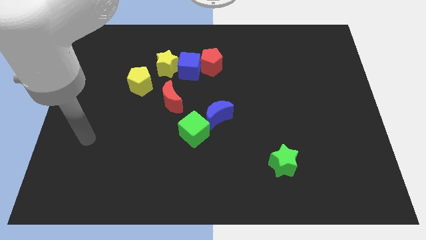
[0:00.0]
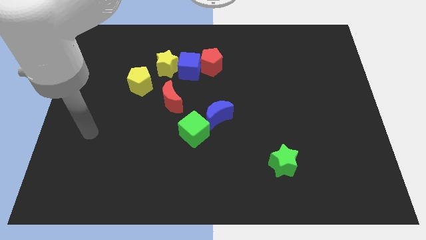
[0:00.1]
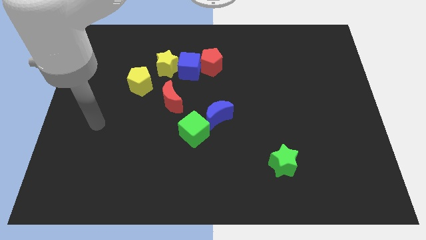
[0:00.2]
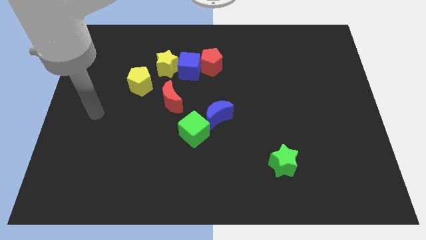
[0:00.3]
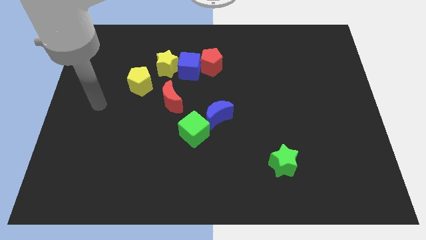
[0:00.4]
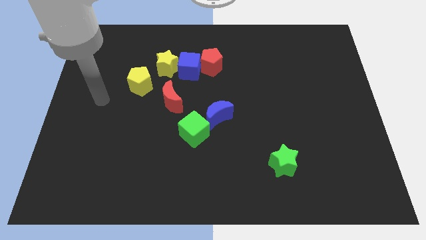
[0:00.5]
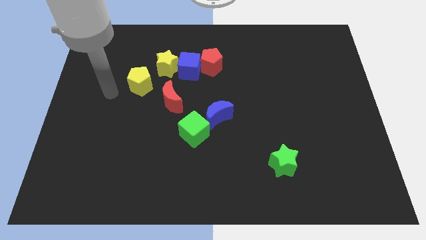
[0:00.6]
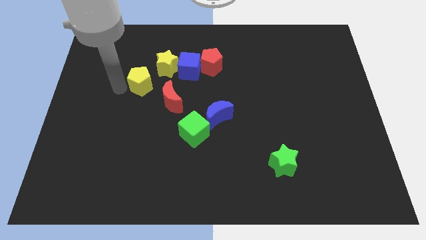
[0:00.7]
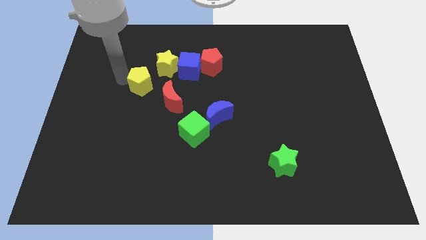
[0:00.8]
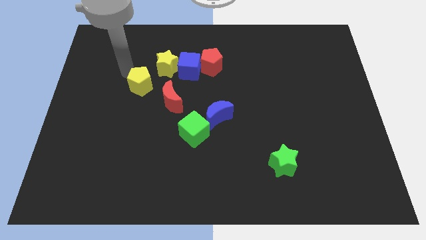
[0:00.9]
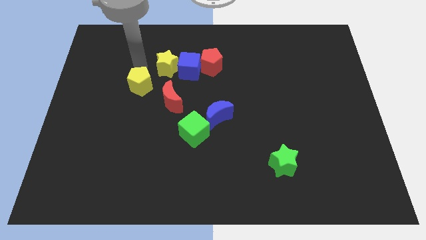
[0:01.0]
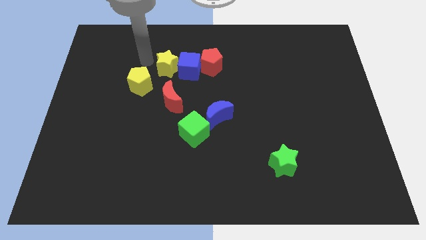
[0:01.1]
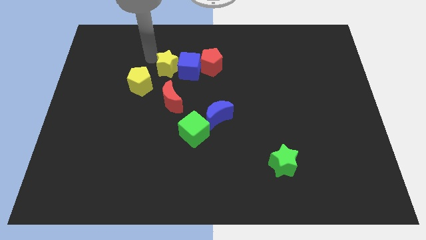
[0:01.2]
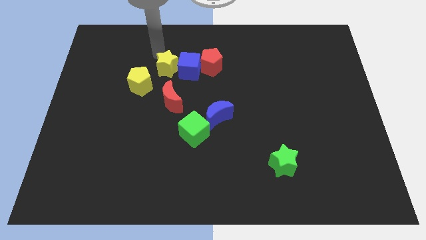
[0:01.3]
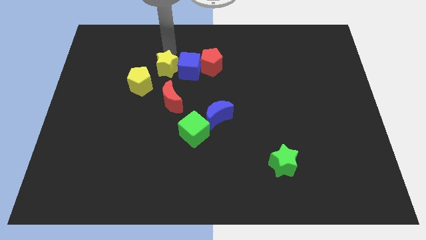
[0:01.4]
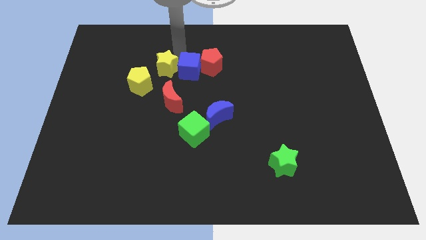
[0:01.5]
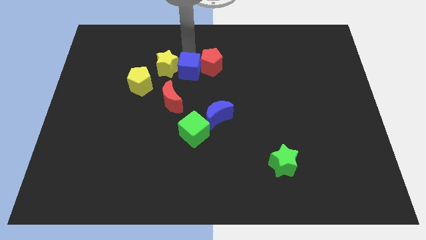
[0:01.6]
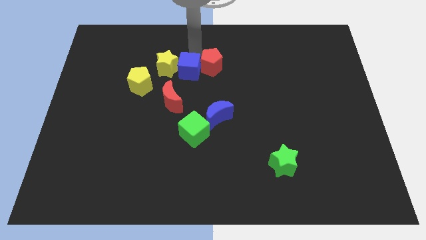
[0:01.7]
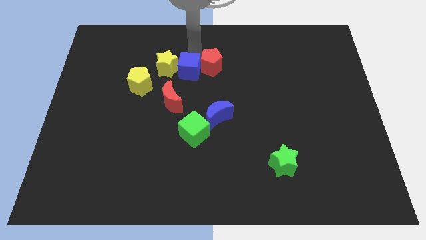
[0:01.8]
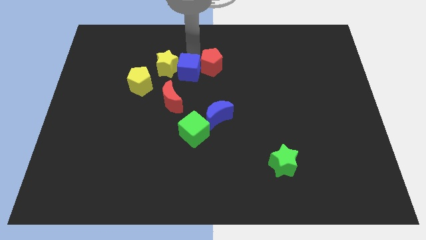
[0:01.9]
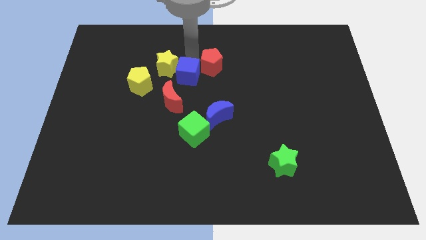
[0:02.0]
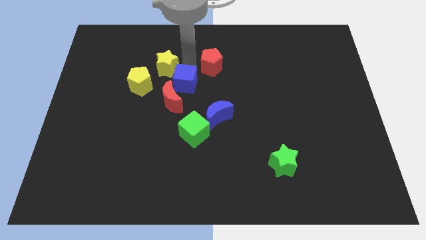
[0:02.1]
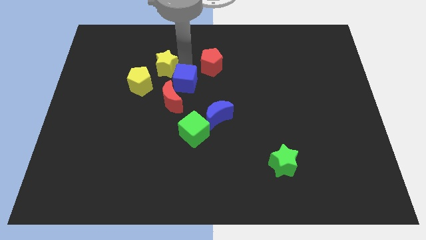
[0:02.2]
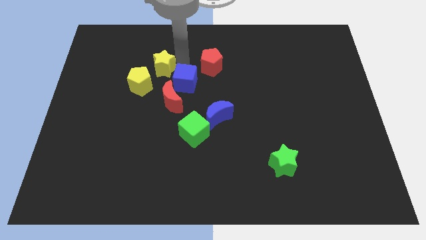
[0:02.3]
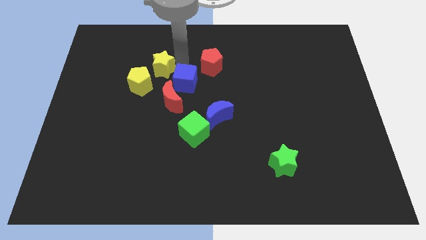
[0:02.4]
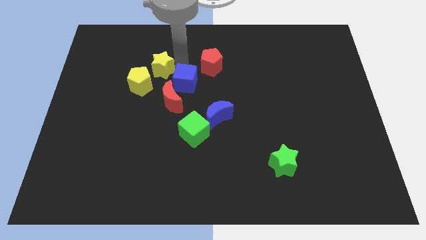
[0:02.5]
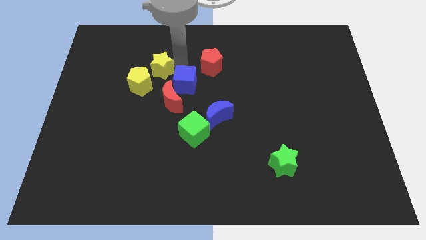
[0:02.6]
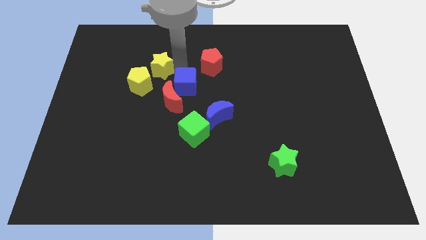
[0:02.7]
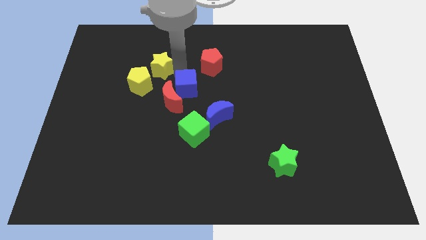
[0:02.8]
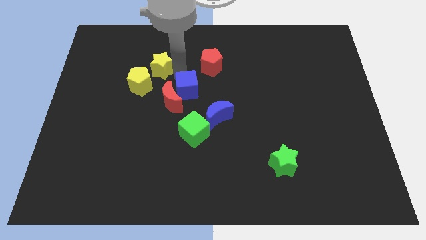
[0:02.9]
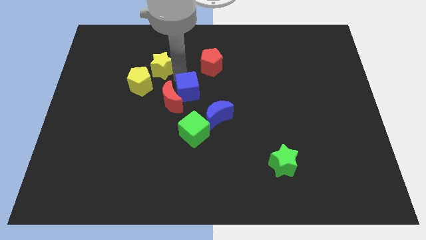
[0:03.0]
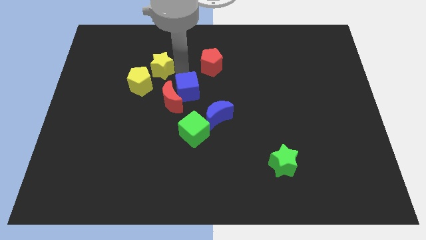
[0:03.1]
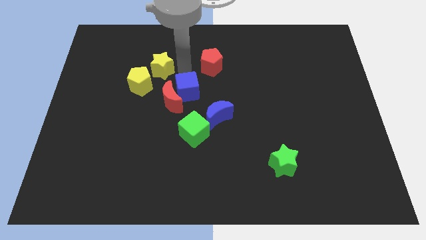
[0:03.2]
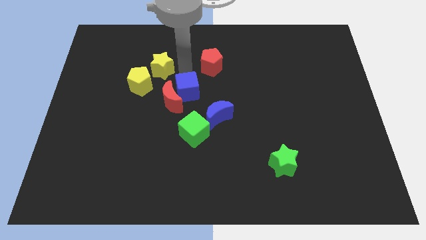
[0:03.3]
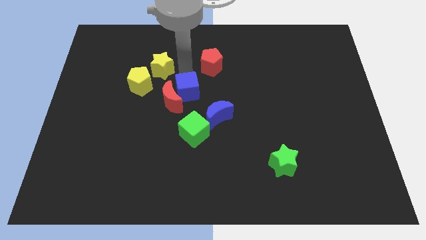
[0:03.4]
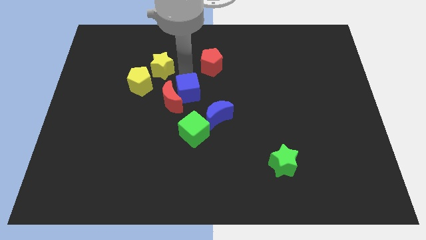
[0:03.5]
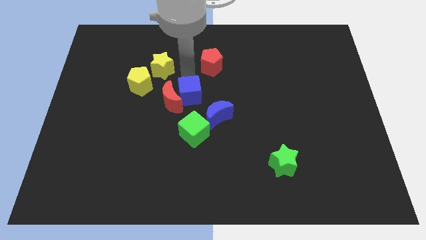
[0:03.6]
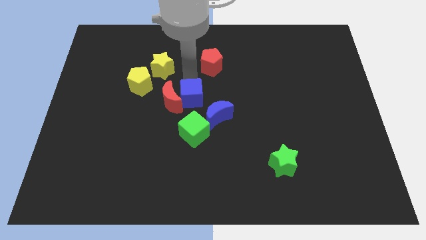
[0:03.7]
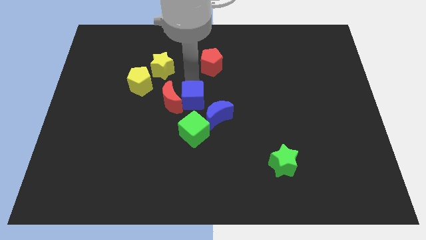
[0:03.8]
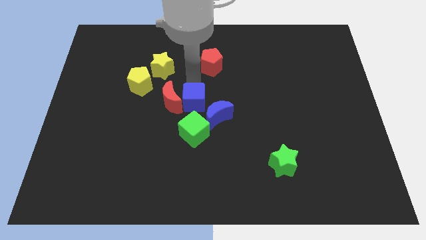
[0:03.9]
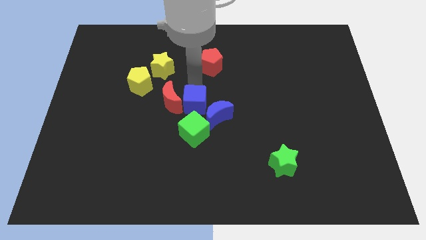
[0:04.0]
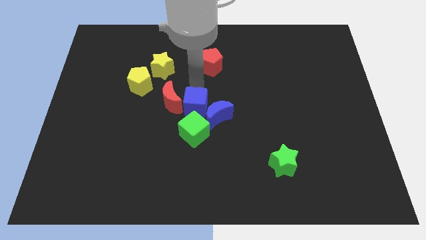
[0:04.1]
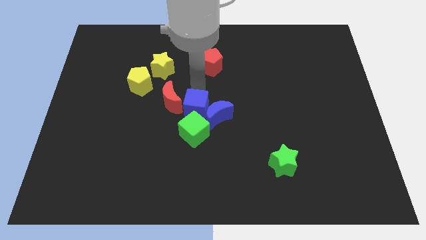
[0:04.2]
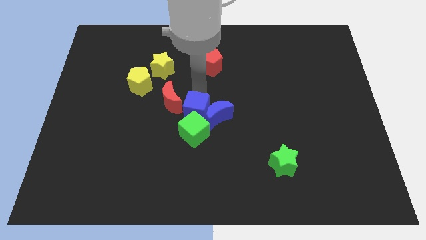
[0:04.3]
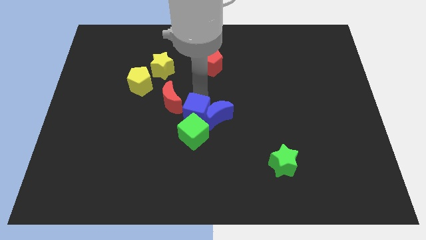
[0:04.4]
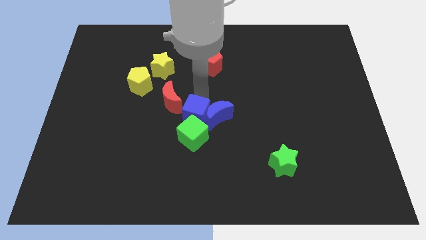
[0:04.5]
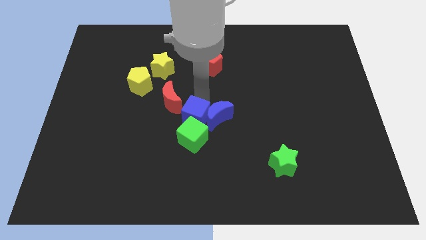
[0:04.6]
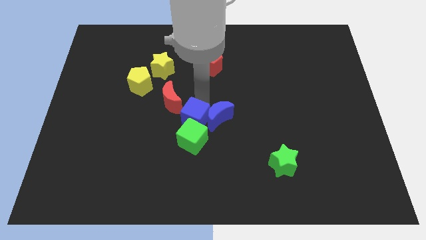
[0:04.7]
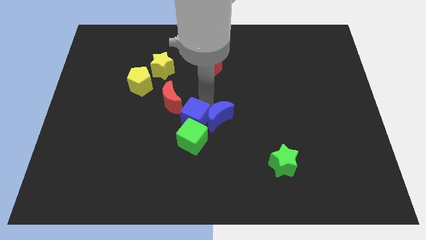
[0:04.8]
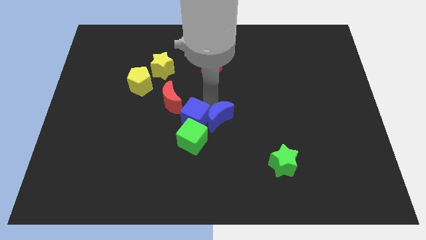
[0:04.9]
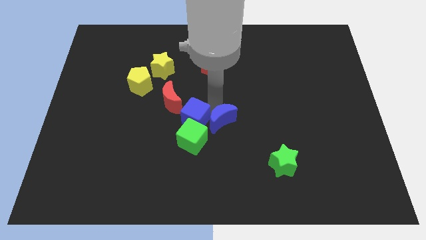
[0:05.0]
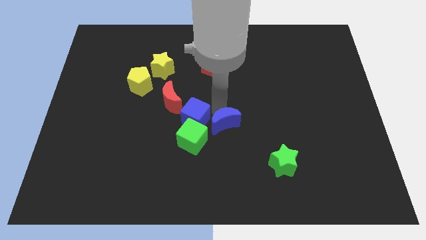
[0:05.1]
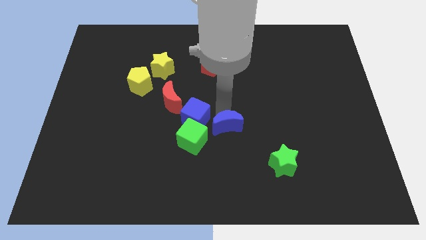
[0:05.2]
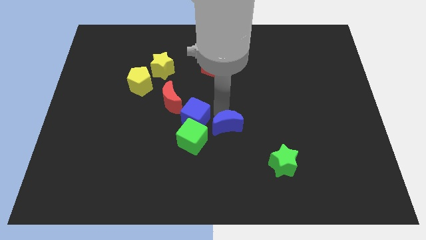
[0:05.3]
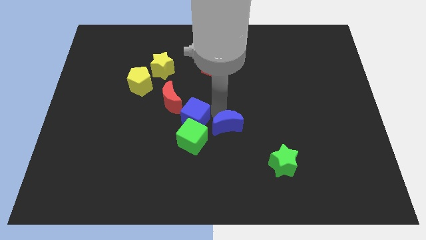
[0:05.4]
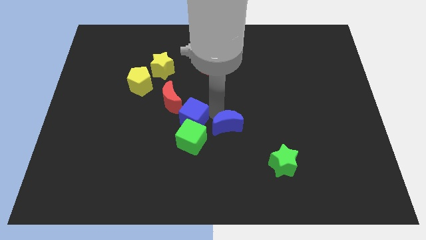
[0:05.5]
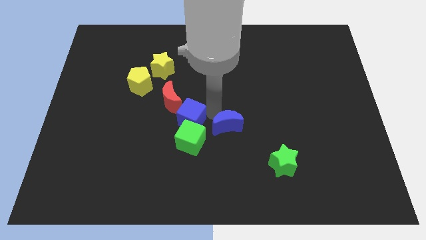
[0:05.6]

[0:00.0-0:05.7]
put the blue cube below the red moon
